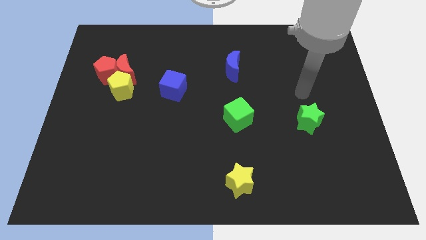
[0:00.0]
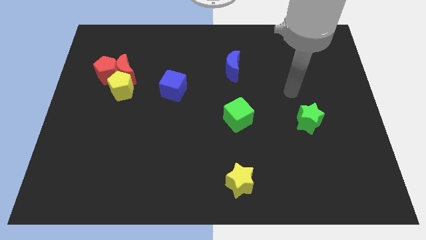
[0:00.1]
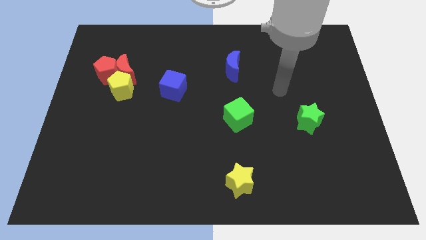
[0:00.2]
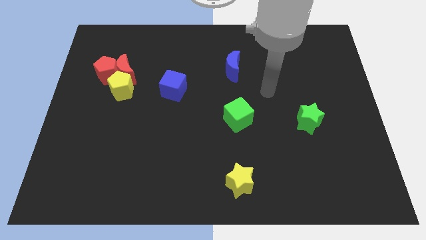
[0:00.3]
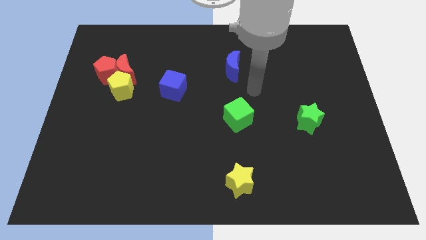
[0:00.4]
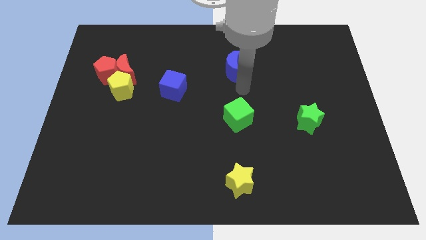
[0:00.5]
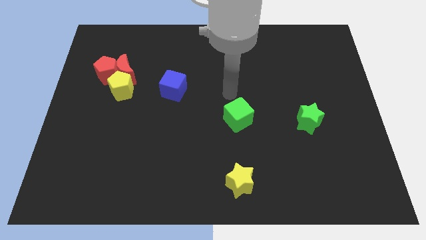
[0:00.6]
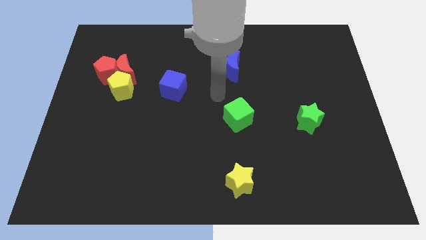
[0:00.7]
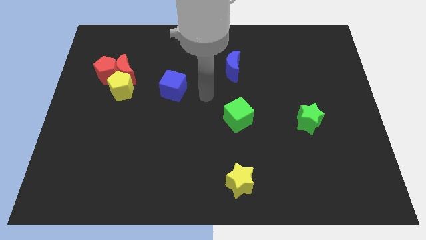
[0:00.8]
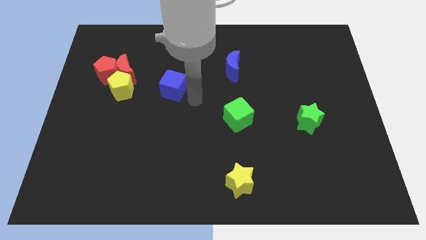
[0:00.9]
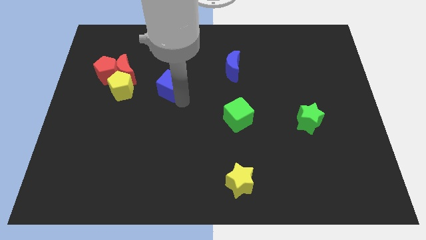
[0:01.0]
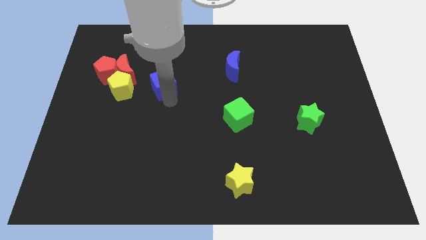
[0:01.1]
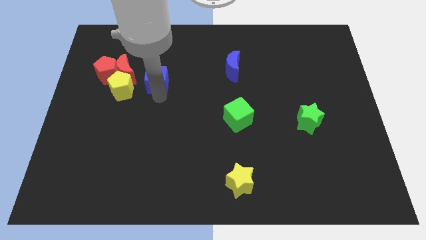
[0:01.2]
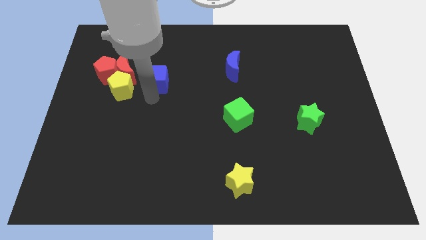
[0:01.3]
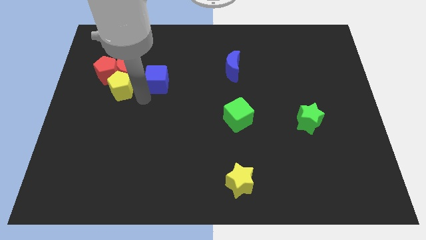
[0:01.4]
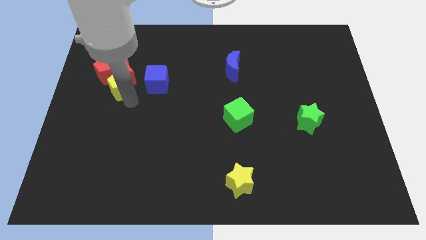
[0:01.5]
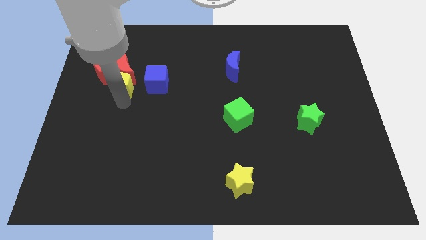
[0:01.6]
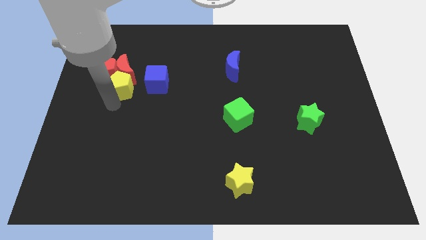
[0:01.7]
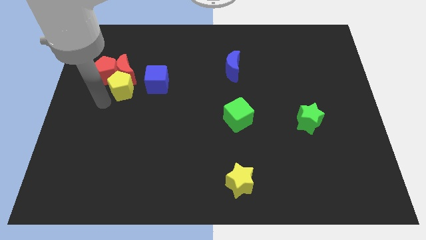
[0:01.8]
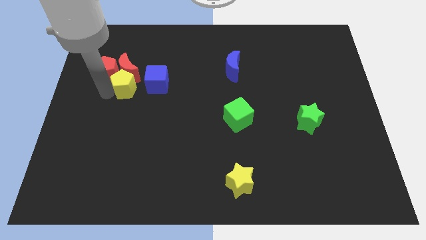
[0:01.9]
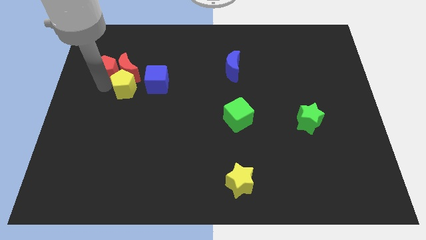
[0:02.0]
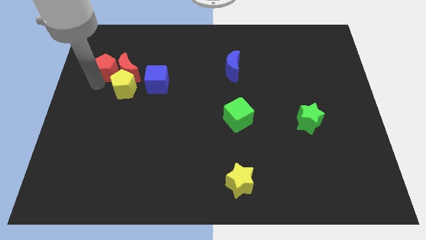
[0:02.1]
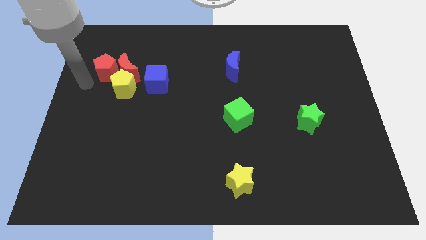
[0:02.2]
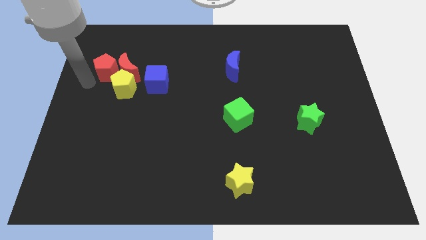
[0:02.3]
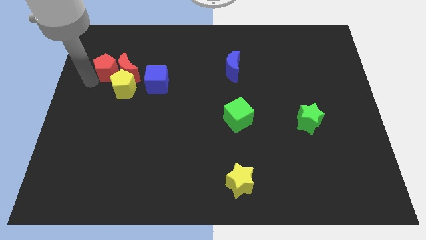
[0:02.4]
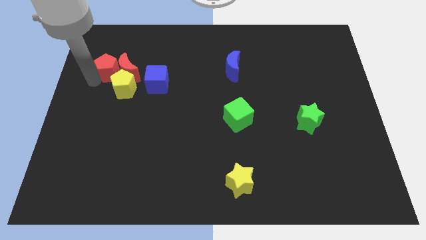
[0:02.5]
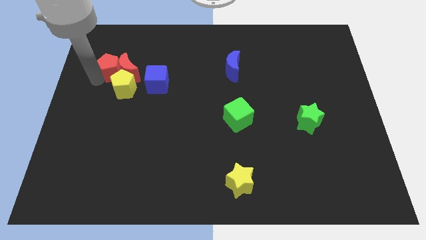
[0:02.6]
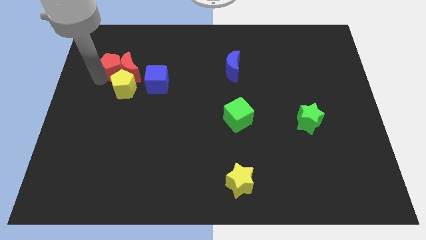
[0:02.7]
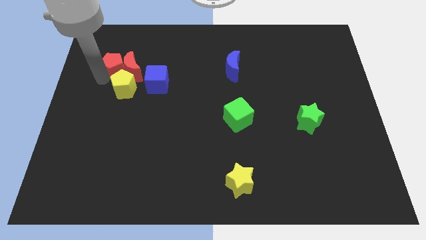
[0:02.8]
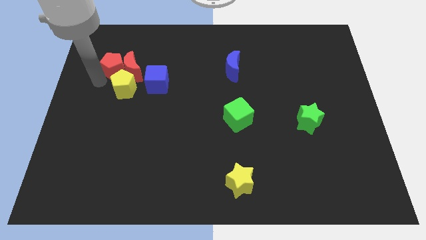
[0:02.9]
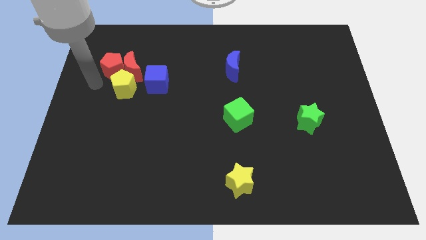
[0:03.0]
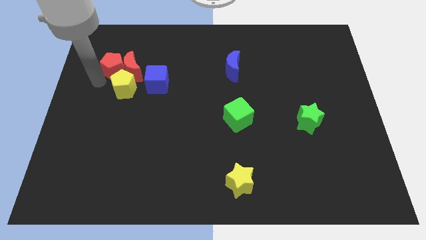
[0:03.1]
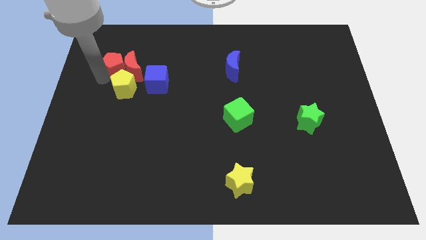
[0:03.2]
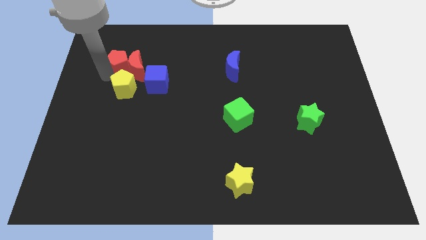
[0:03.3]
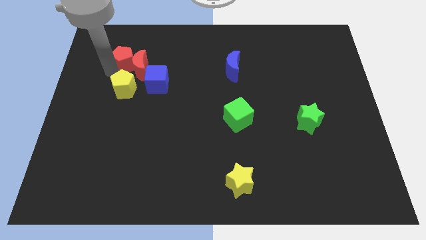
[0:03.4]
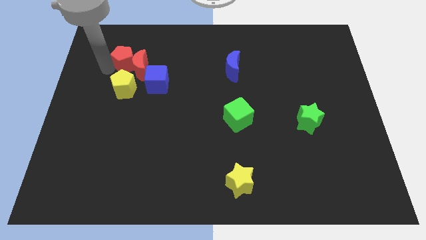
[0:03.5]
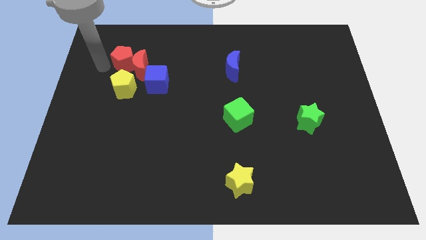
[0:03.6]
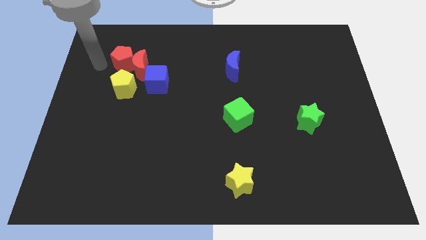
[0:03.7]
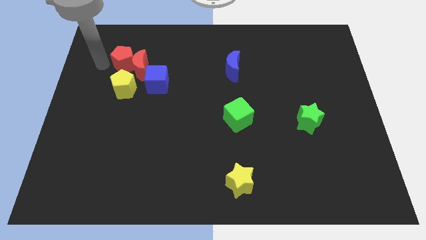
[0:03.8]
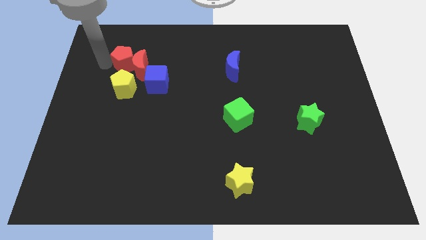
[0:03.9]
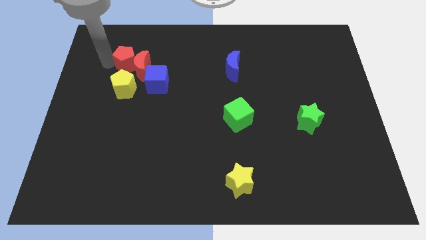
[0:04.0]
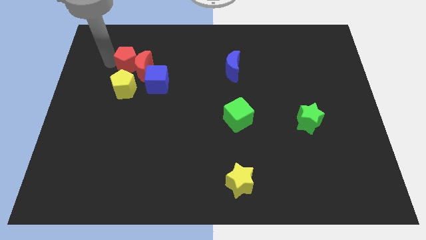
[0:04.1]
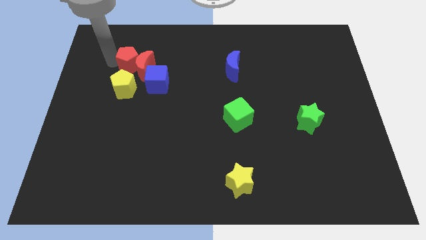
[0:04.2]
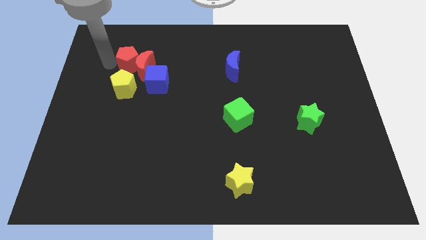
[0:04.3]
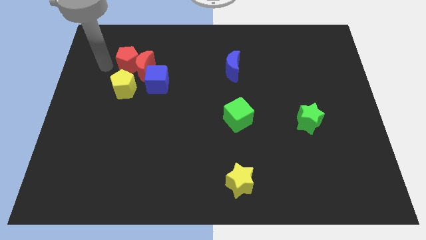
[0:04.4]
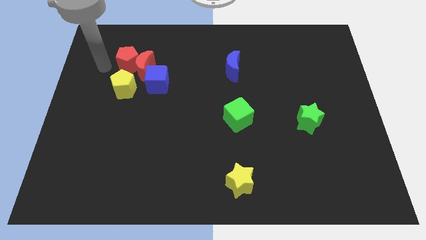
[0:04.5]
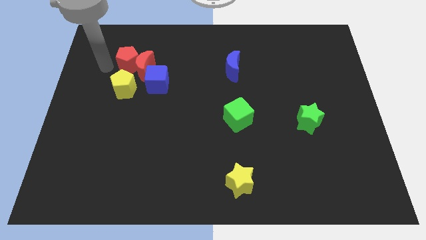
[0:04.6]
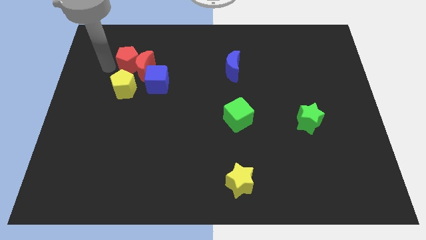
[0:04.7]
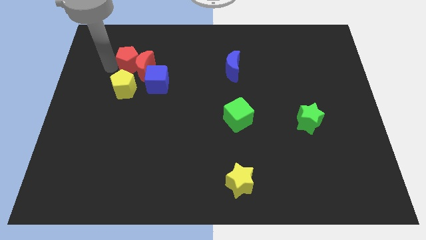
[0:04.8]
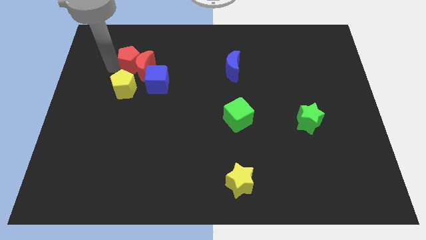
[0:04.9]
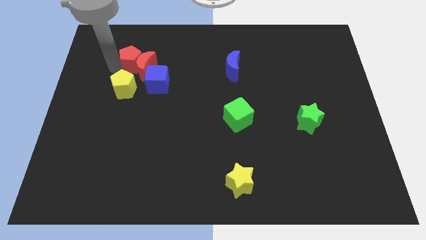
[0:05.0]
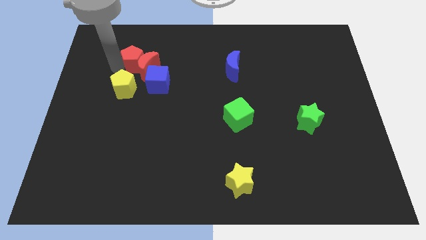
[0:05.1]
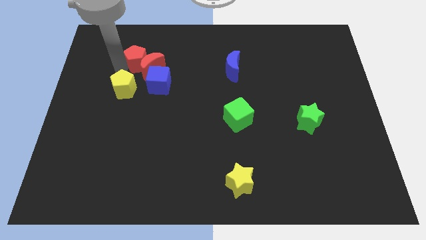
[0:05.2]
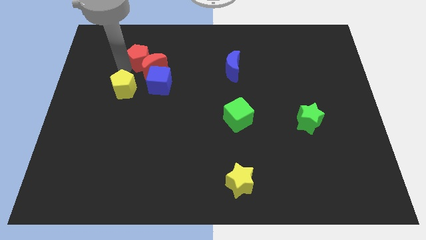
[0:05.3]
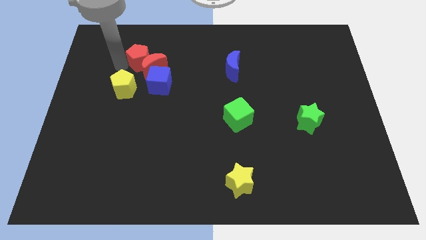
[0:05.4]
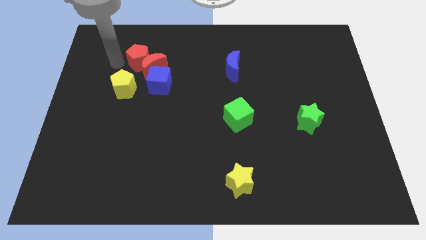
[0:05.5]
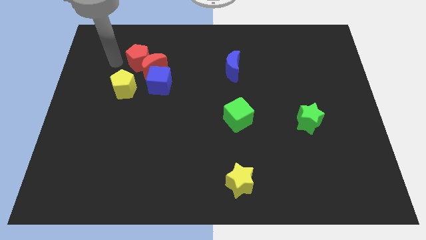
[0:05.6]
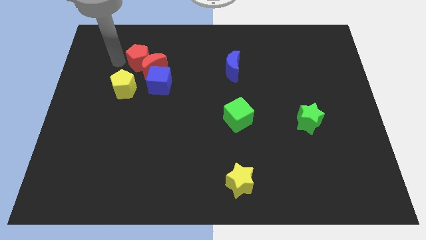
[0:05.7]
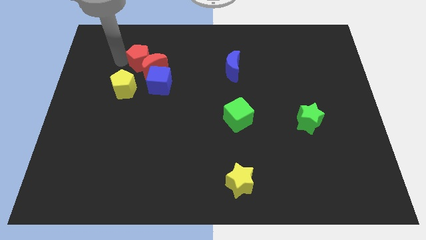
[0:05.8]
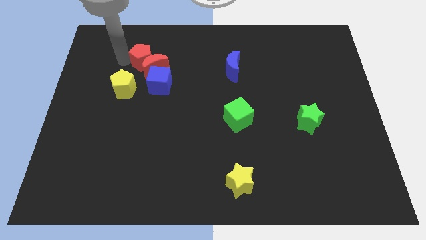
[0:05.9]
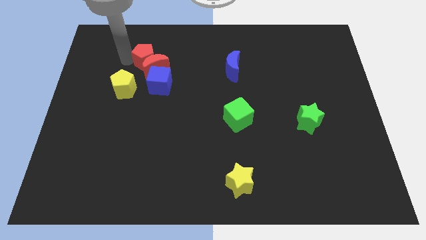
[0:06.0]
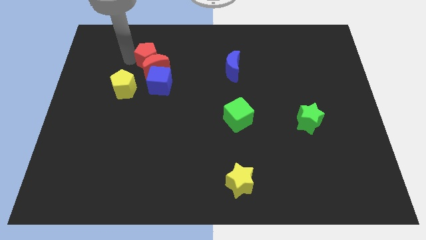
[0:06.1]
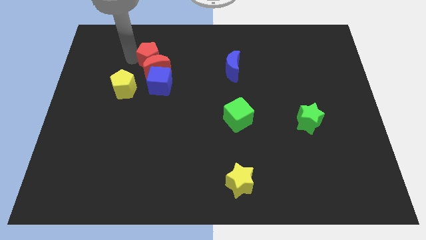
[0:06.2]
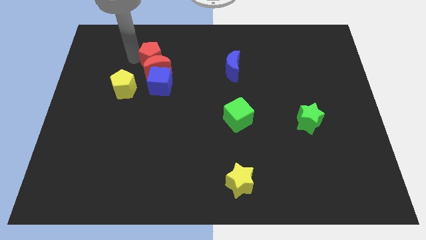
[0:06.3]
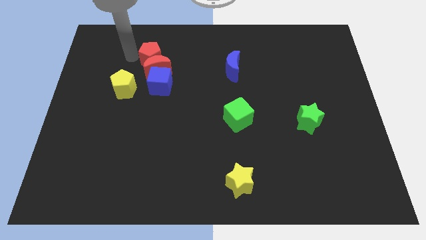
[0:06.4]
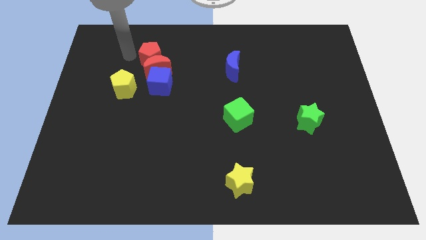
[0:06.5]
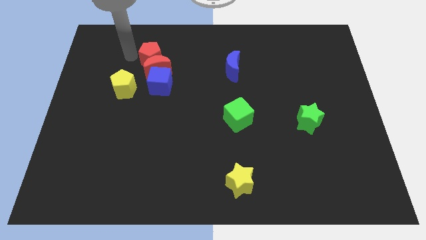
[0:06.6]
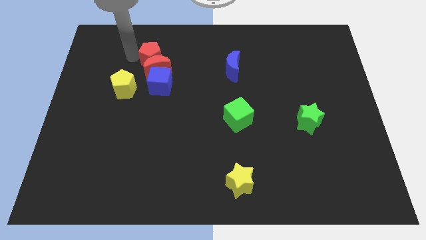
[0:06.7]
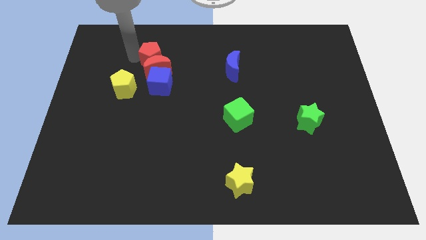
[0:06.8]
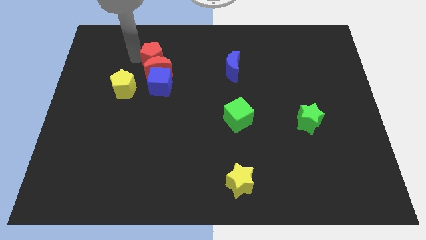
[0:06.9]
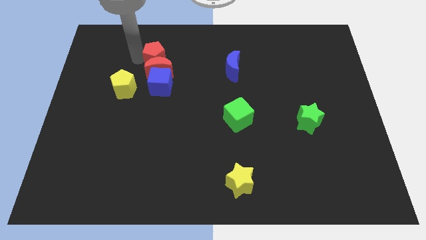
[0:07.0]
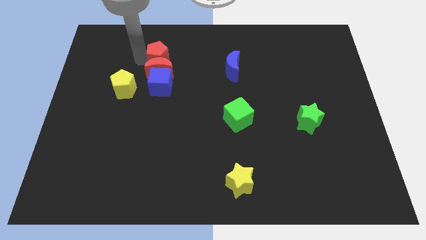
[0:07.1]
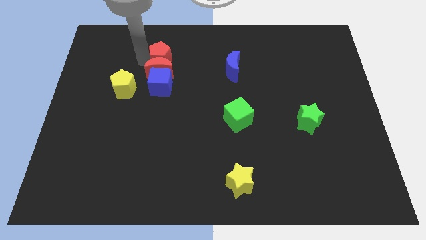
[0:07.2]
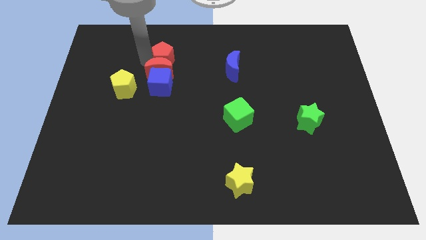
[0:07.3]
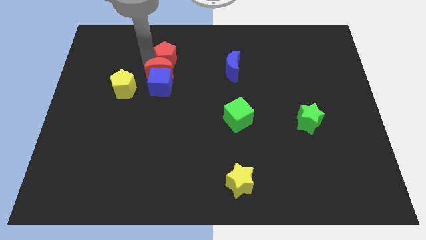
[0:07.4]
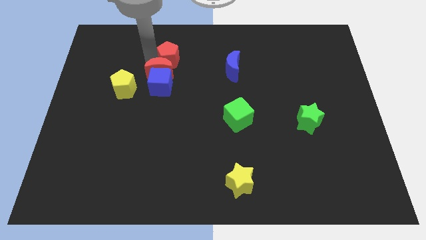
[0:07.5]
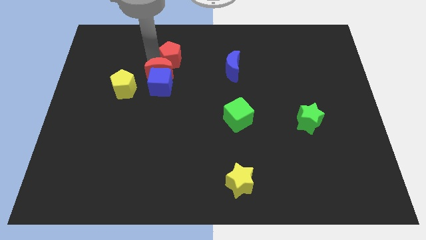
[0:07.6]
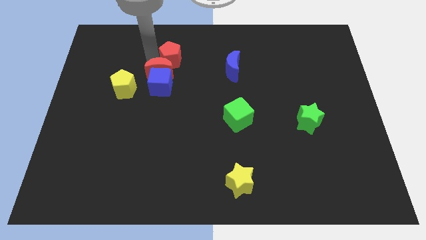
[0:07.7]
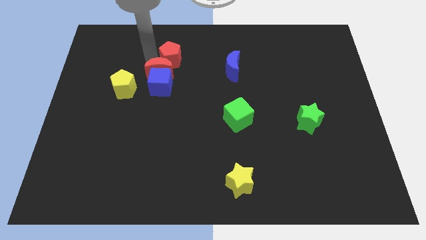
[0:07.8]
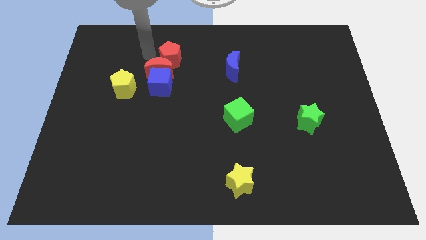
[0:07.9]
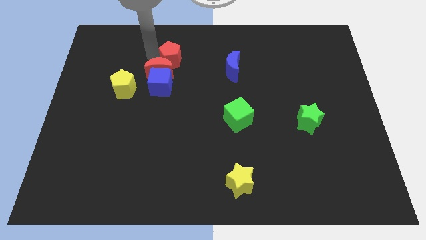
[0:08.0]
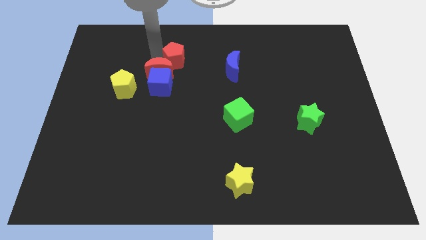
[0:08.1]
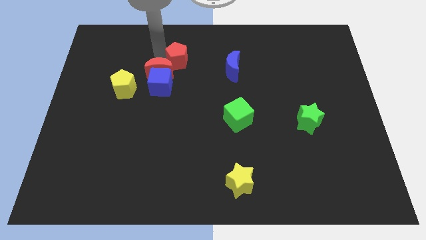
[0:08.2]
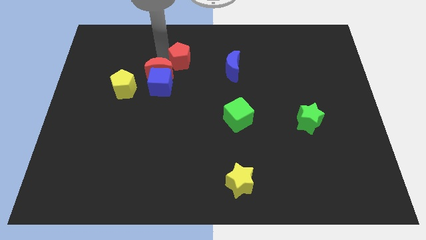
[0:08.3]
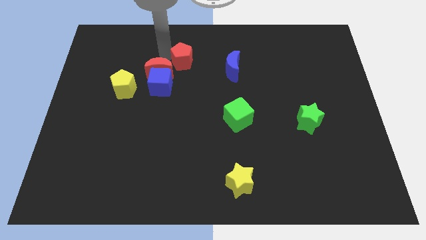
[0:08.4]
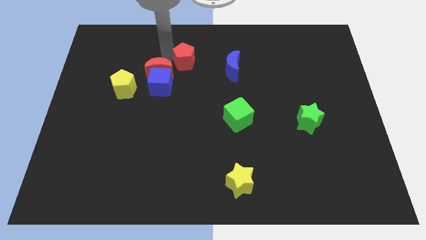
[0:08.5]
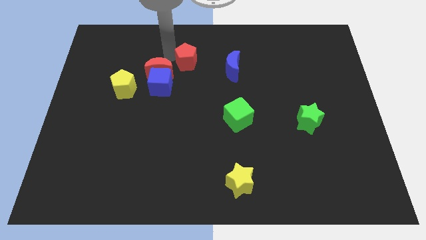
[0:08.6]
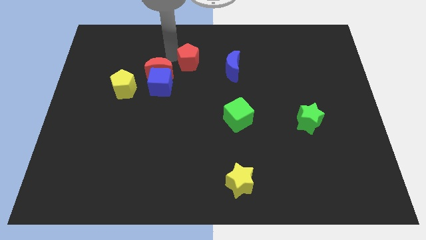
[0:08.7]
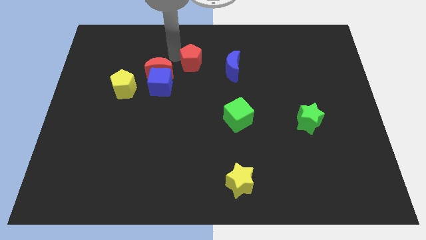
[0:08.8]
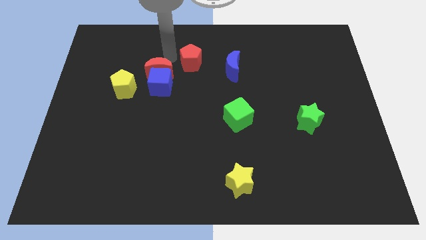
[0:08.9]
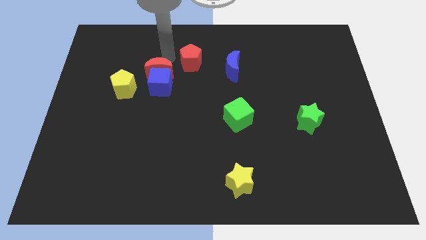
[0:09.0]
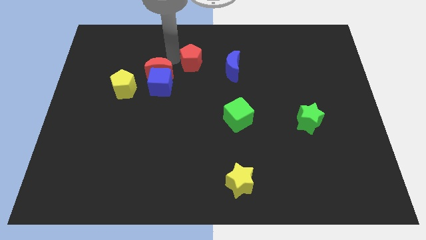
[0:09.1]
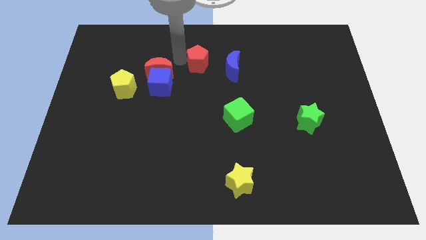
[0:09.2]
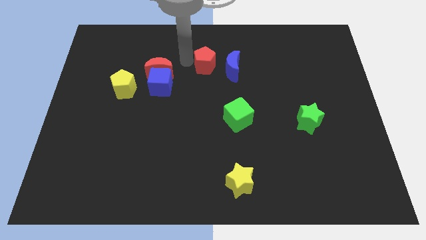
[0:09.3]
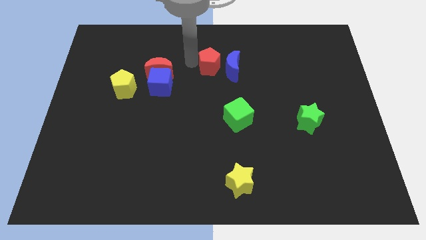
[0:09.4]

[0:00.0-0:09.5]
slide the red pentagon towards the blue moon
